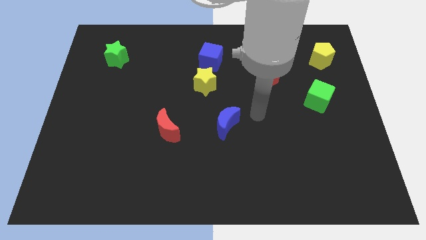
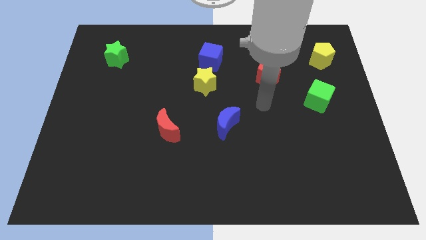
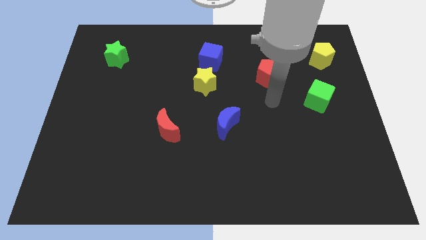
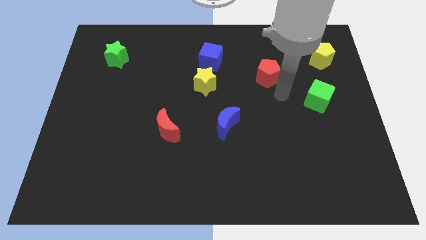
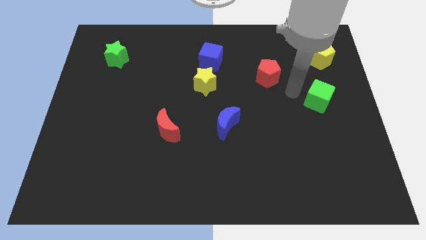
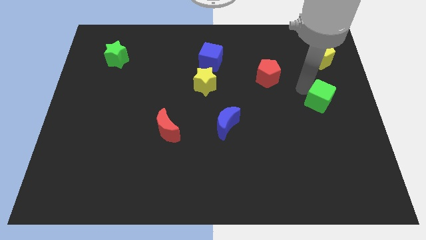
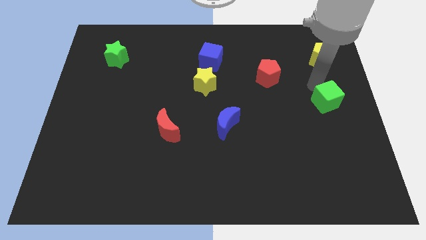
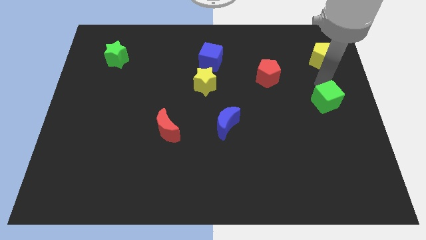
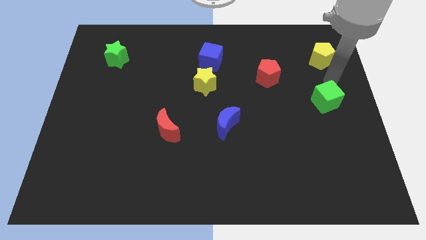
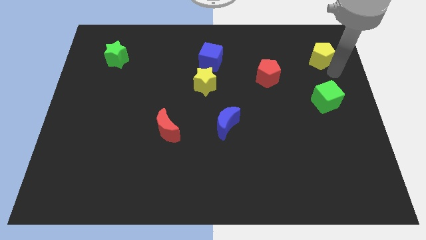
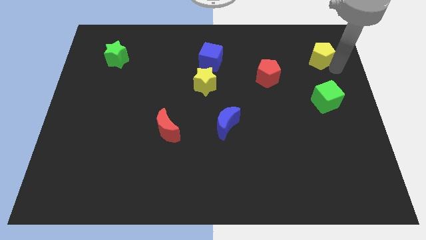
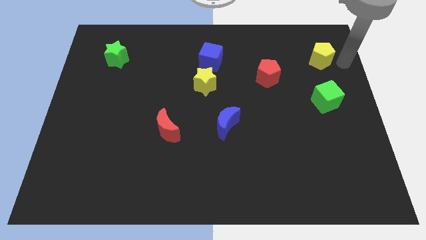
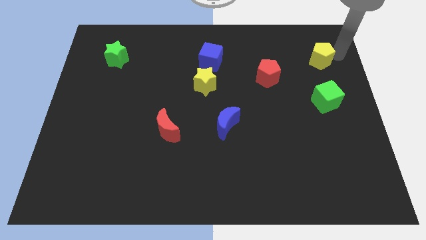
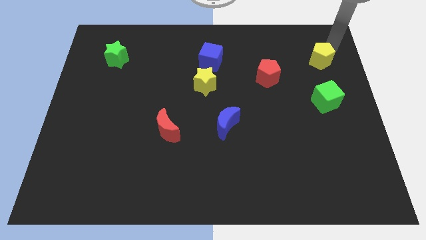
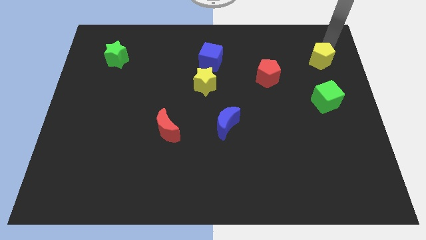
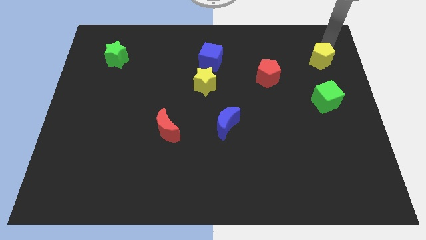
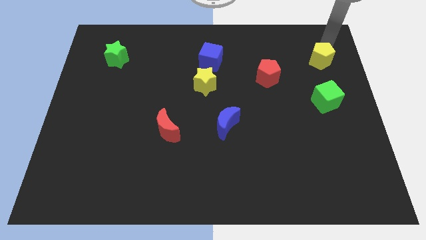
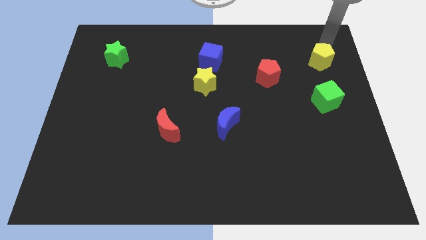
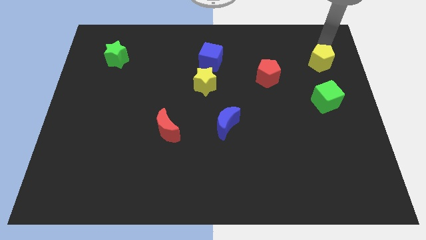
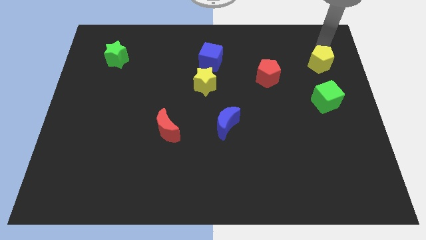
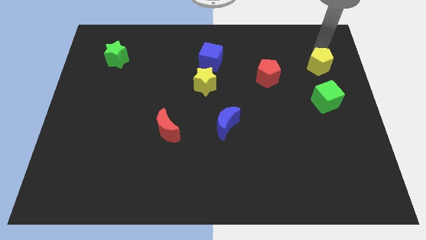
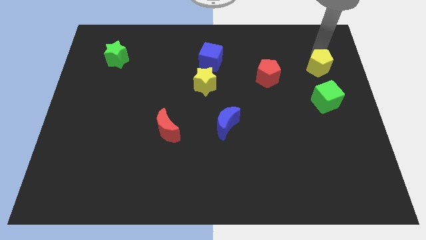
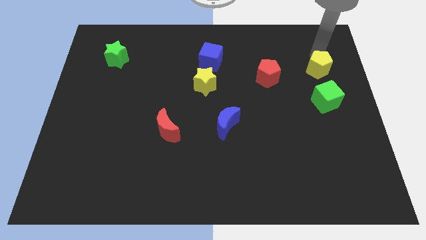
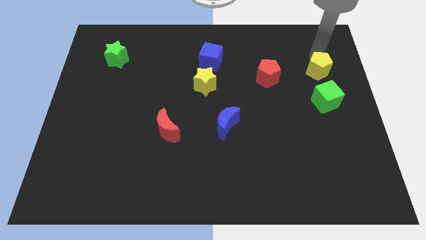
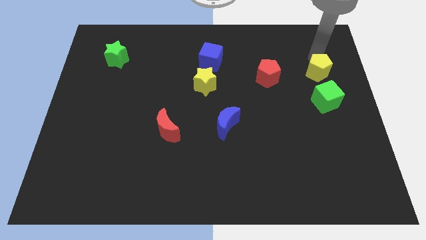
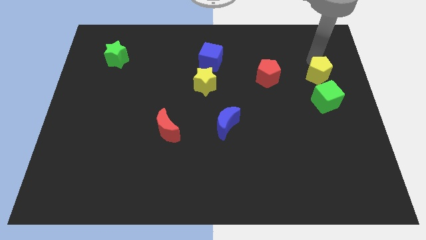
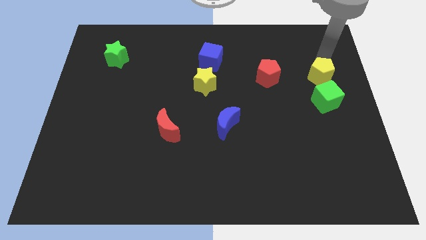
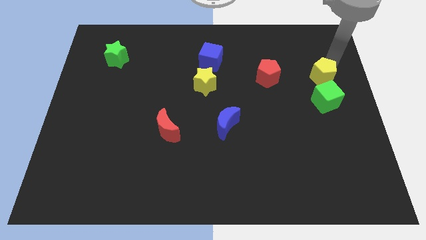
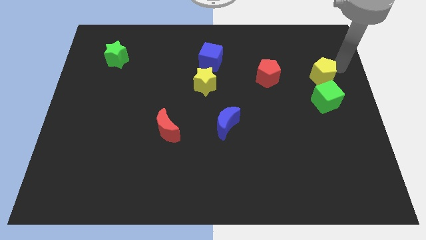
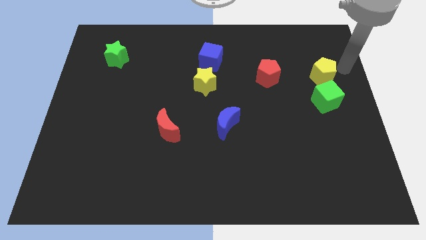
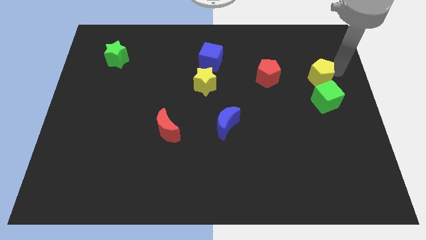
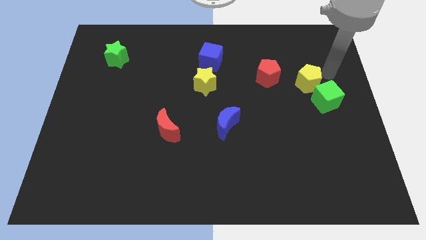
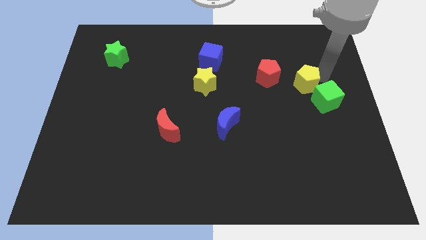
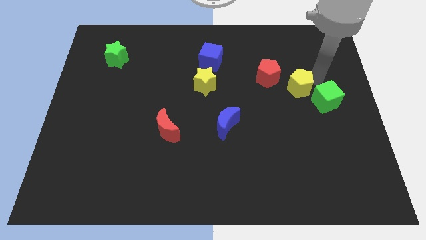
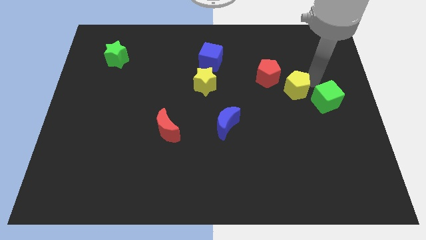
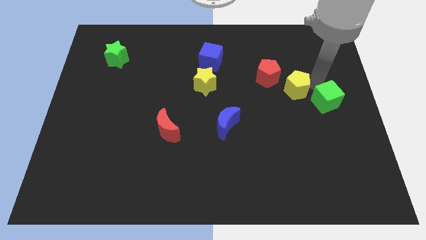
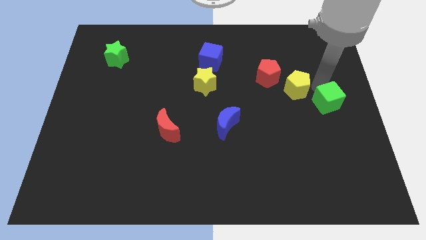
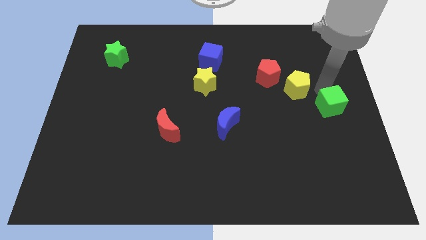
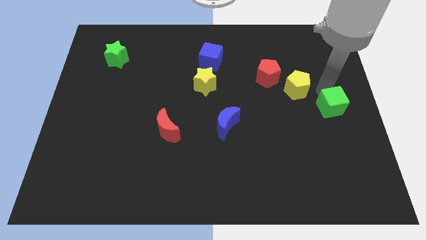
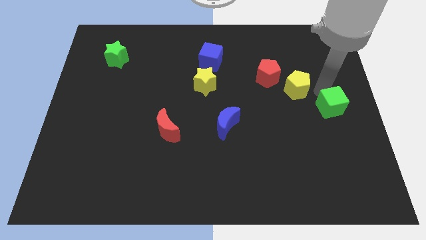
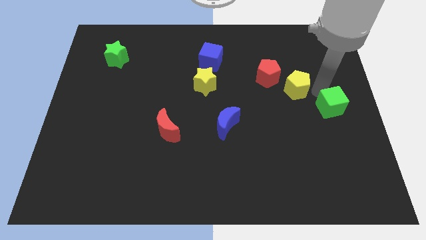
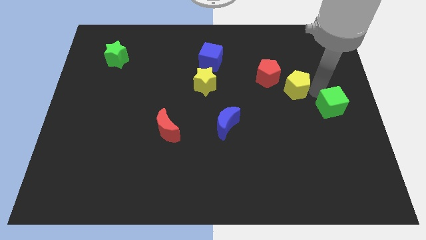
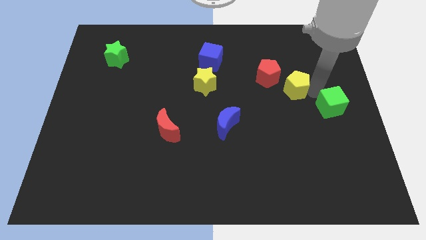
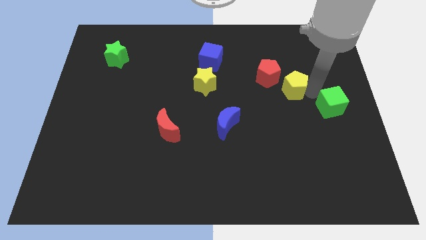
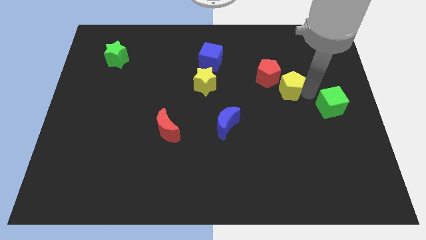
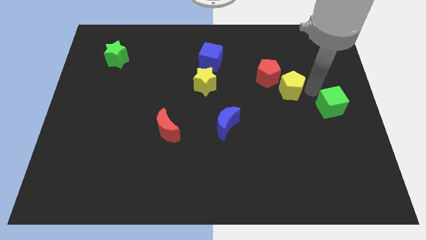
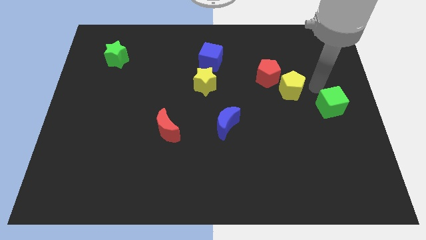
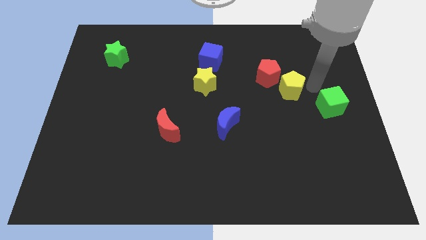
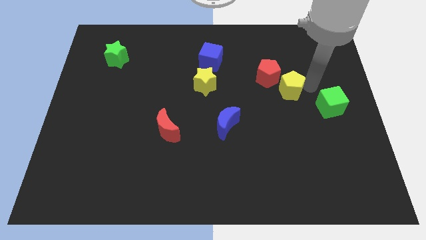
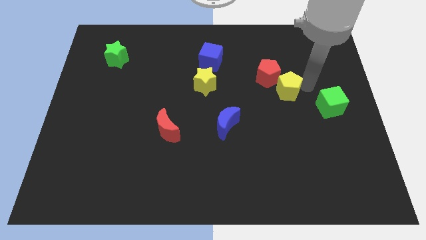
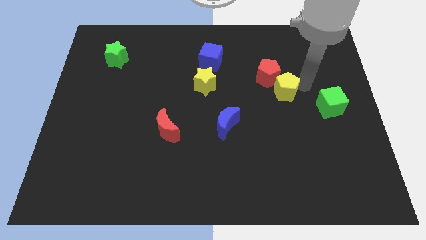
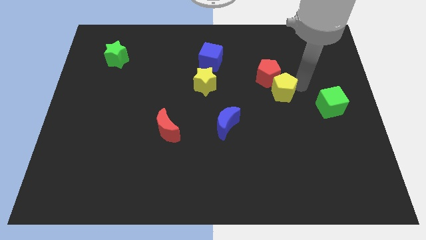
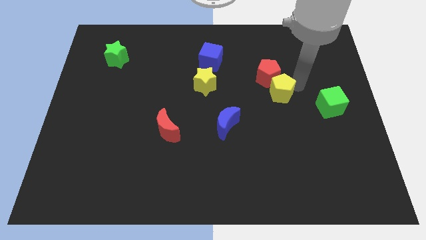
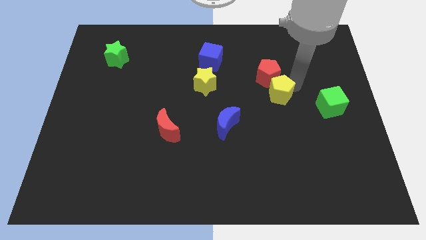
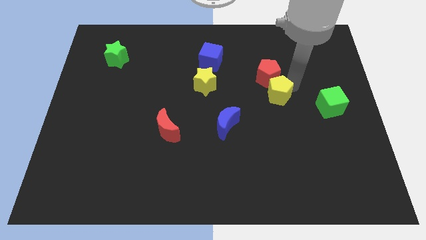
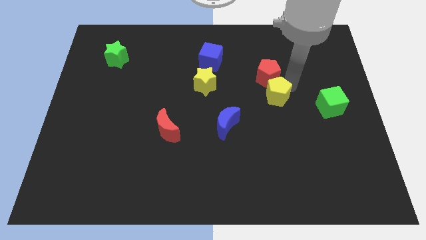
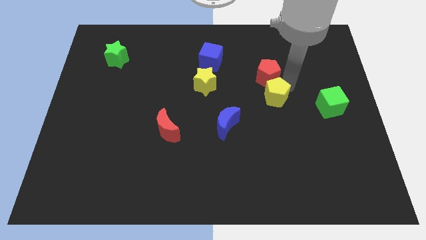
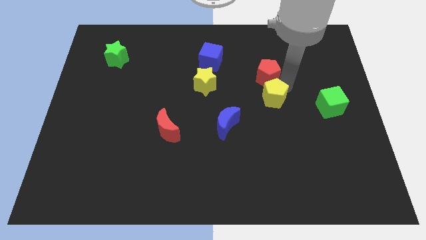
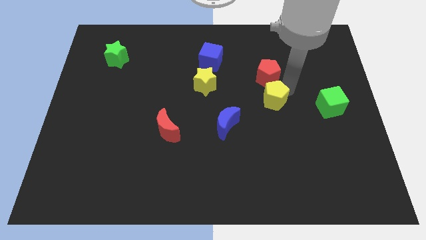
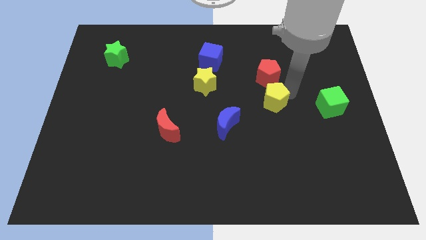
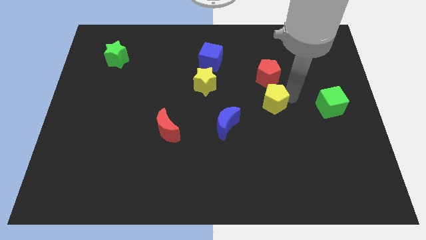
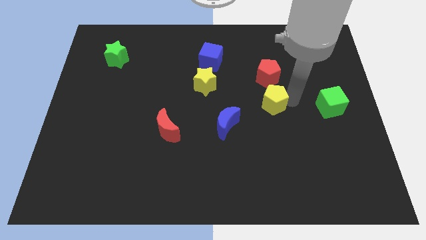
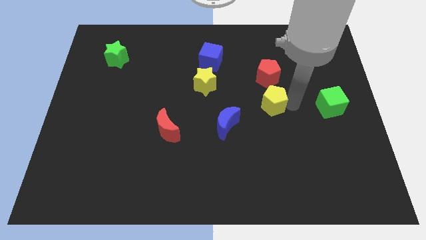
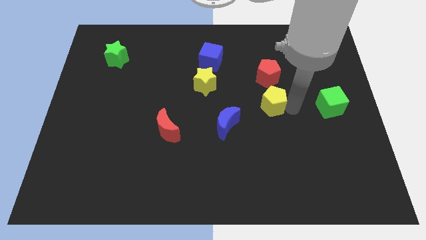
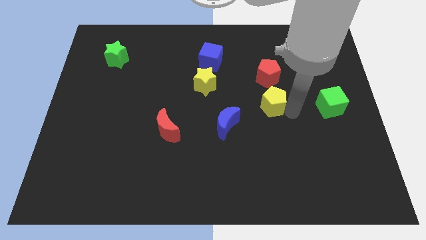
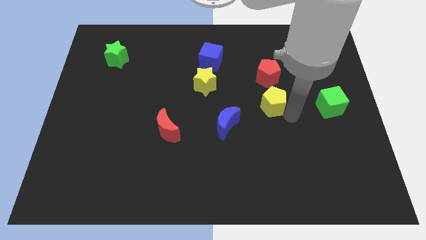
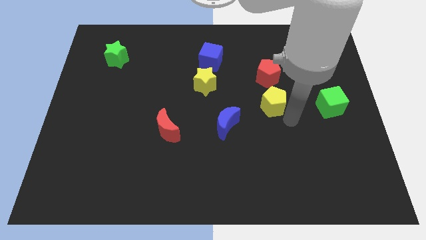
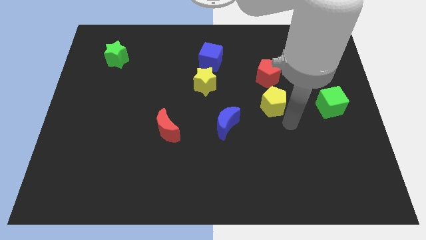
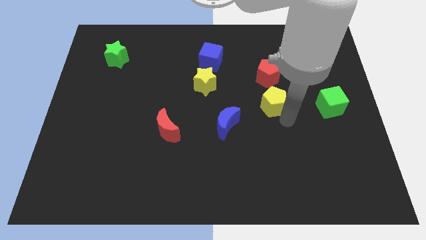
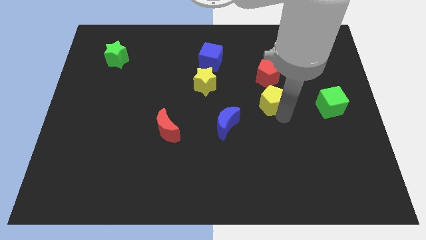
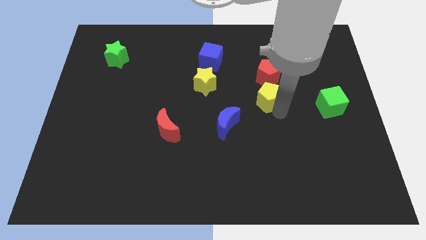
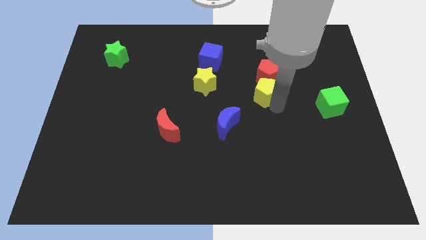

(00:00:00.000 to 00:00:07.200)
put the yellow pentagon to the center of the board
